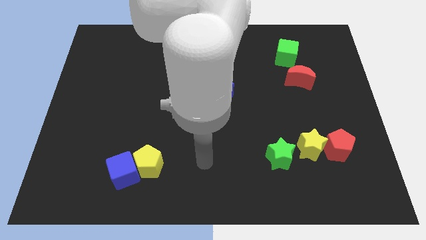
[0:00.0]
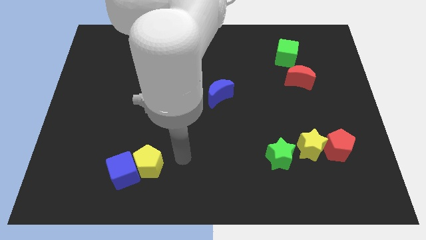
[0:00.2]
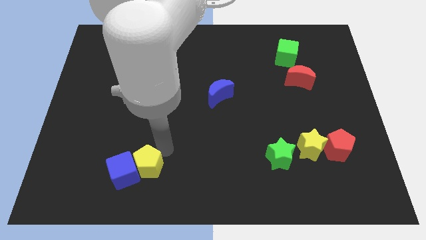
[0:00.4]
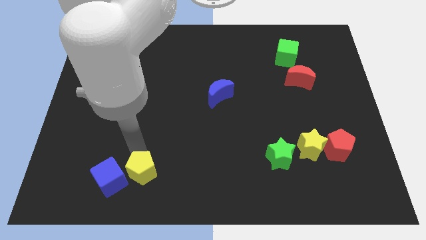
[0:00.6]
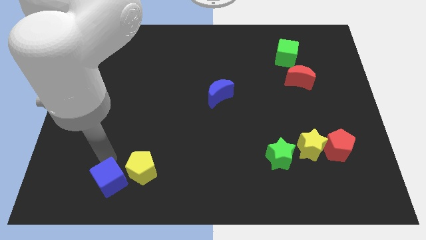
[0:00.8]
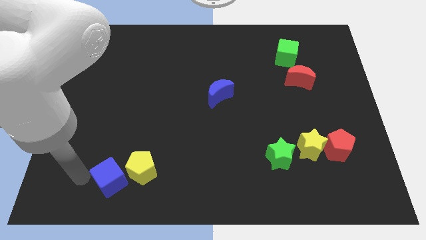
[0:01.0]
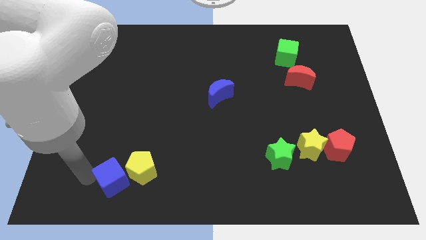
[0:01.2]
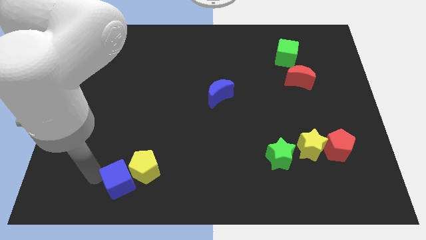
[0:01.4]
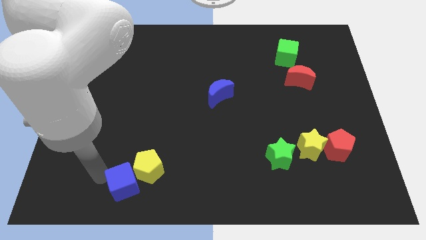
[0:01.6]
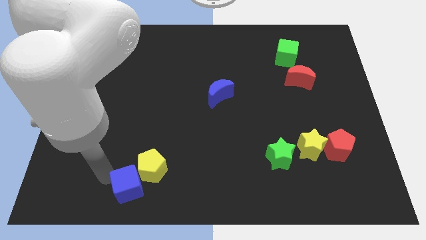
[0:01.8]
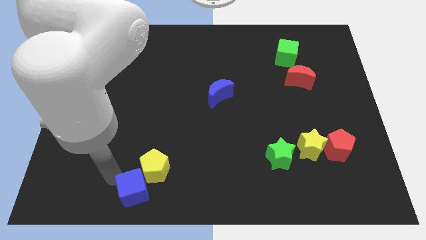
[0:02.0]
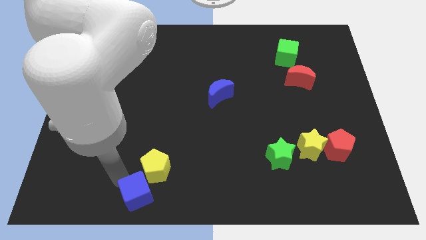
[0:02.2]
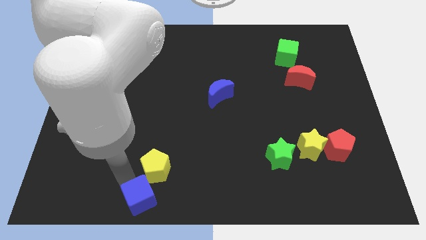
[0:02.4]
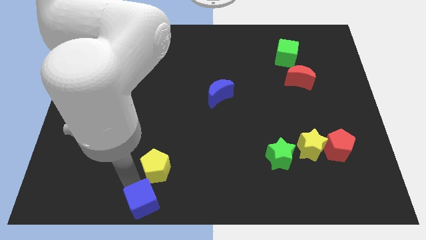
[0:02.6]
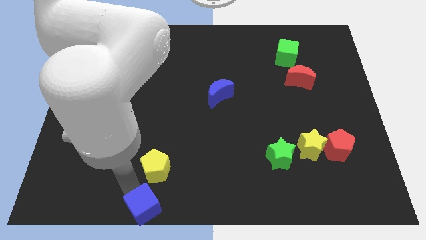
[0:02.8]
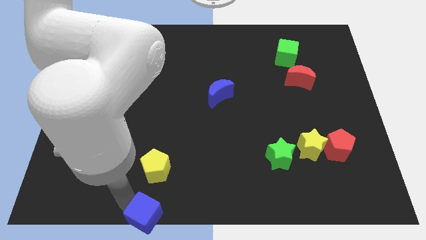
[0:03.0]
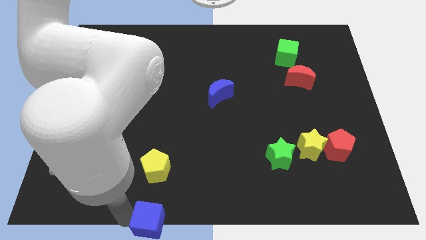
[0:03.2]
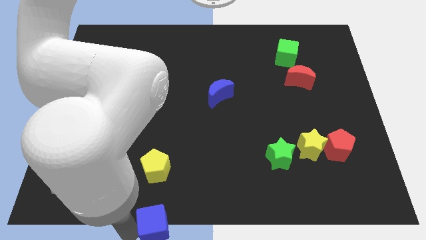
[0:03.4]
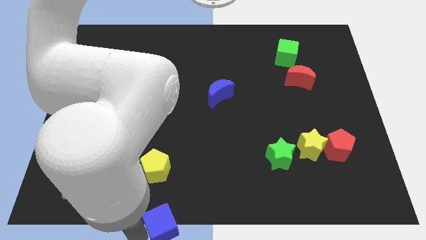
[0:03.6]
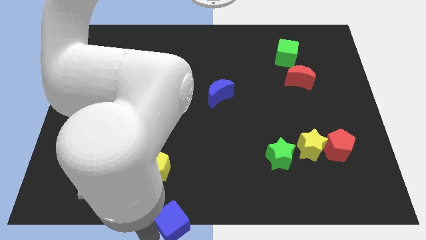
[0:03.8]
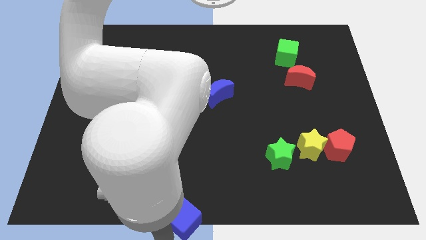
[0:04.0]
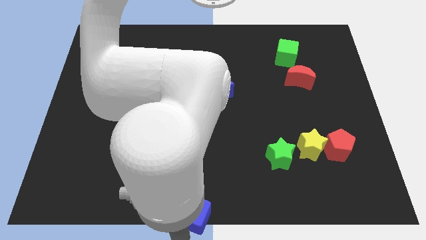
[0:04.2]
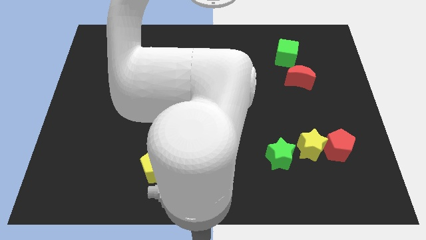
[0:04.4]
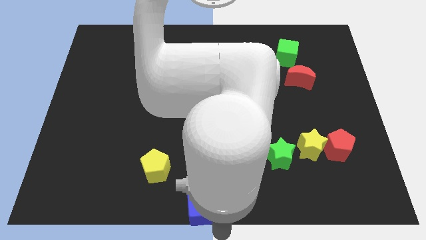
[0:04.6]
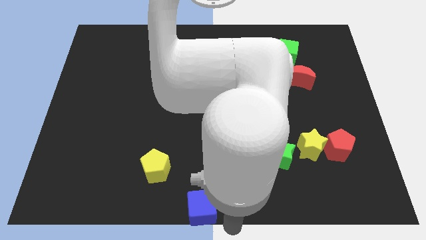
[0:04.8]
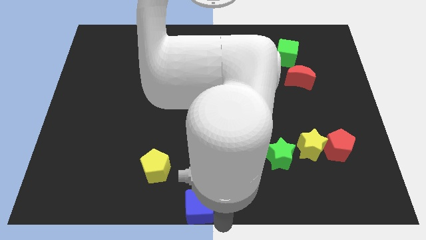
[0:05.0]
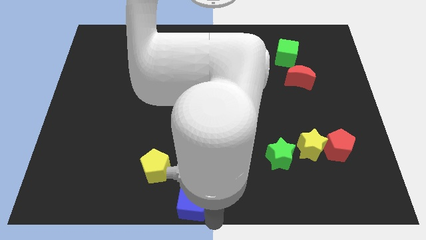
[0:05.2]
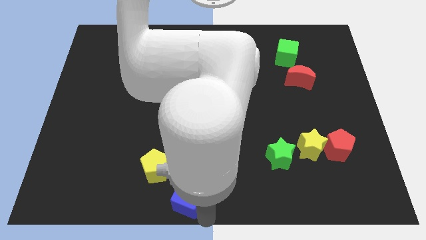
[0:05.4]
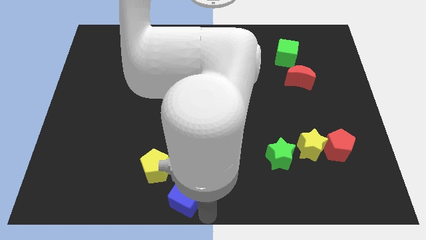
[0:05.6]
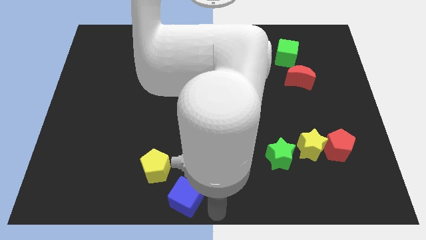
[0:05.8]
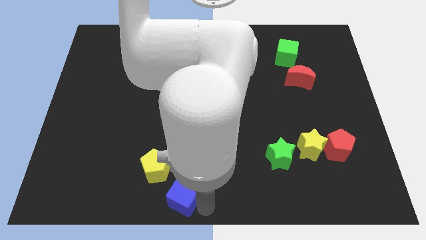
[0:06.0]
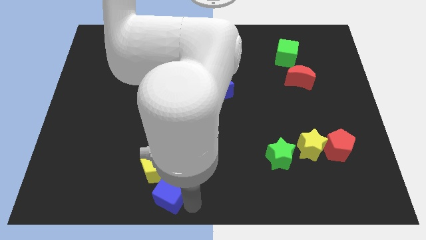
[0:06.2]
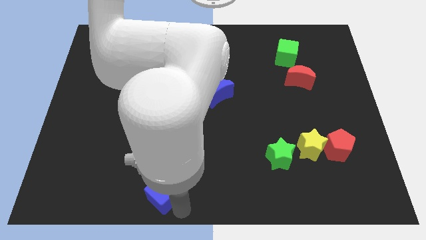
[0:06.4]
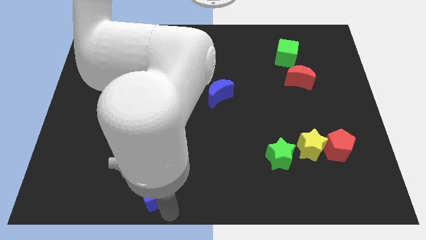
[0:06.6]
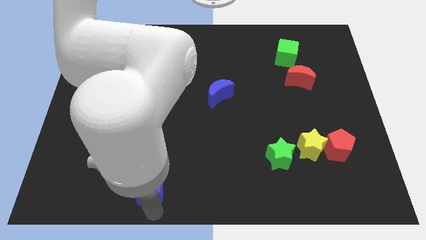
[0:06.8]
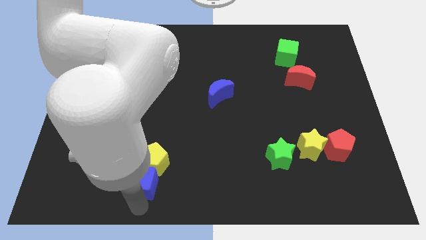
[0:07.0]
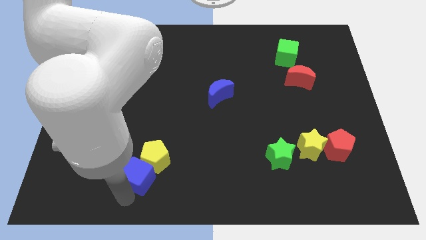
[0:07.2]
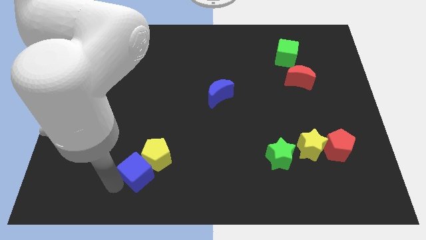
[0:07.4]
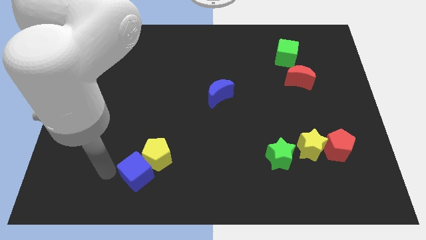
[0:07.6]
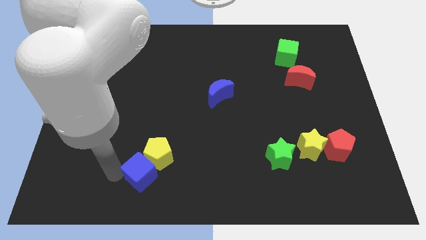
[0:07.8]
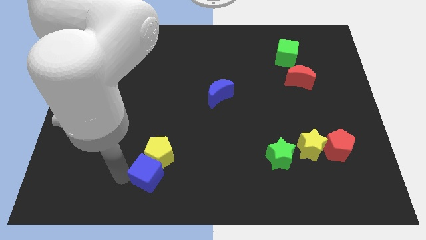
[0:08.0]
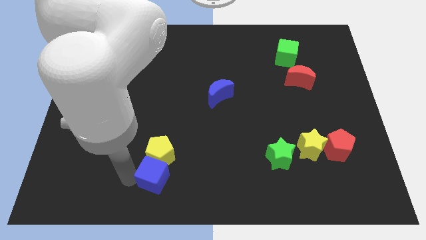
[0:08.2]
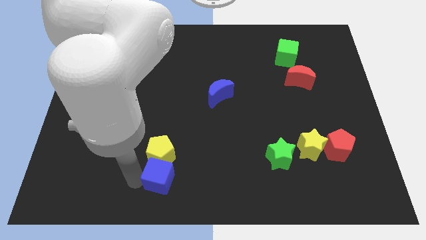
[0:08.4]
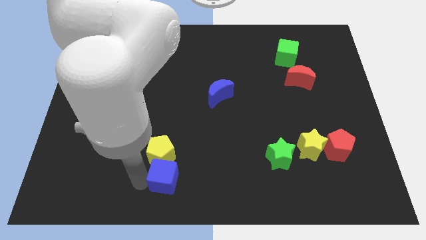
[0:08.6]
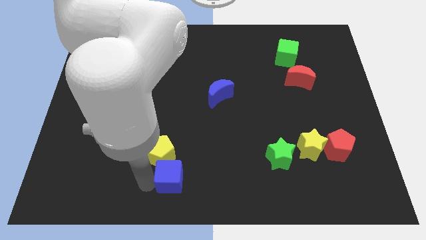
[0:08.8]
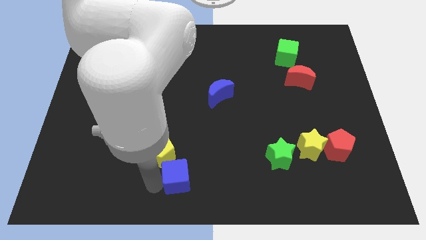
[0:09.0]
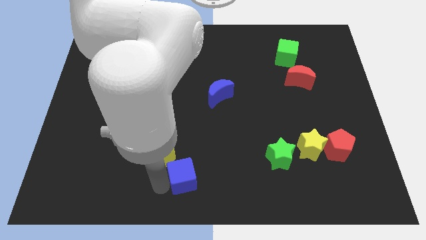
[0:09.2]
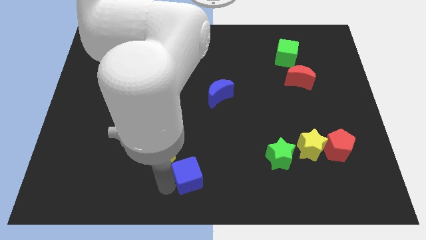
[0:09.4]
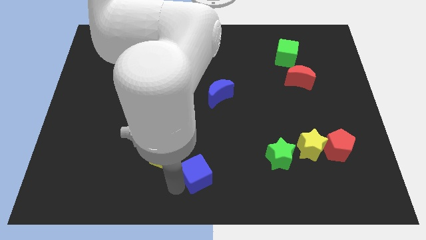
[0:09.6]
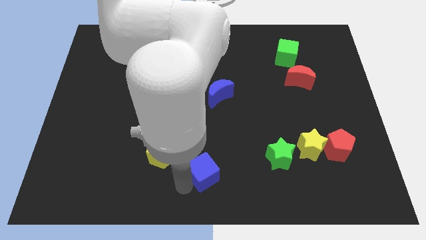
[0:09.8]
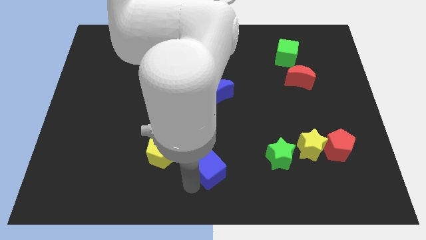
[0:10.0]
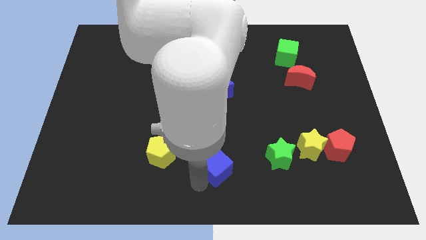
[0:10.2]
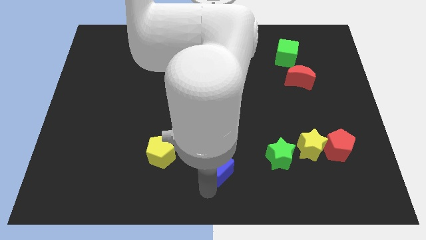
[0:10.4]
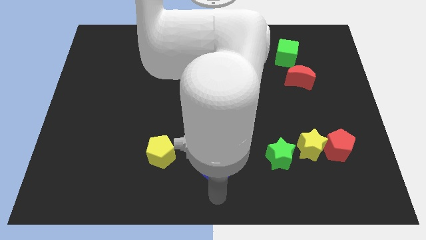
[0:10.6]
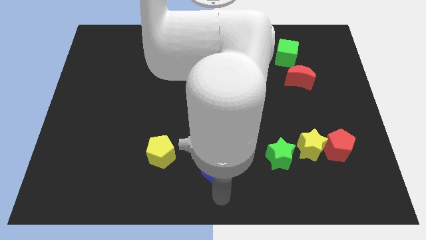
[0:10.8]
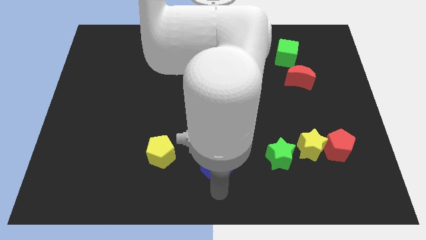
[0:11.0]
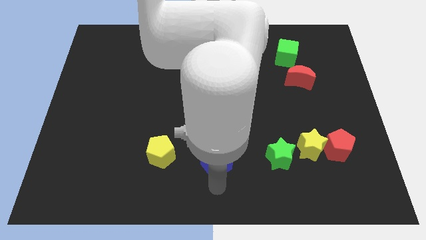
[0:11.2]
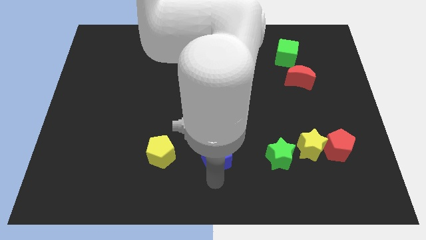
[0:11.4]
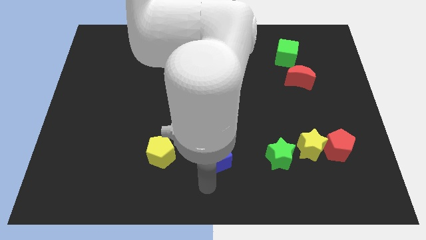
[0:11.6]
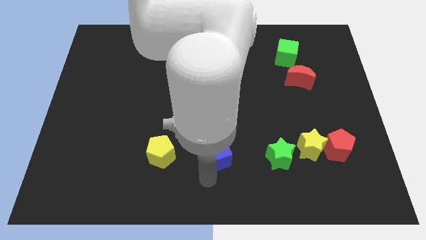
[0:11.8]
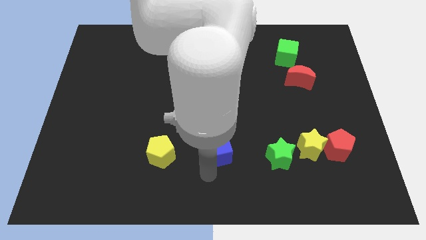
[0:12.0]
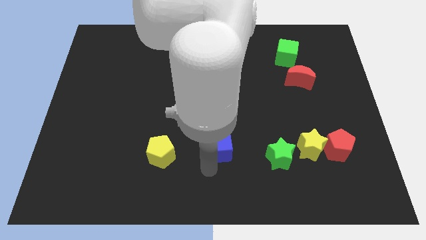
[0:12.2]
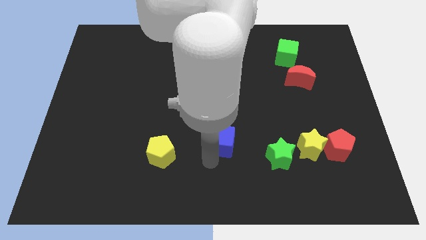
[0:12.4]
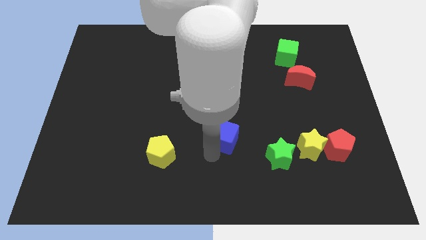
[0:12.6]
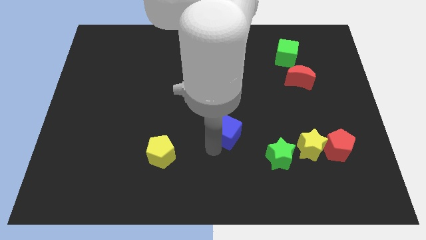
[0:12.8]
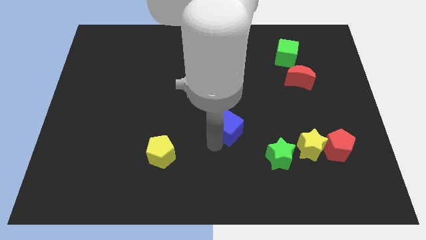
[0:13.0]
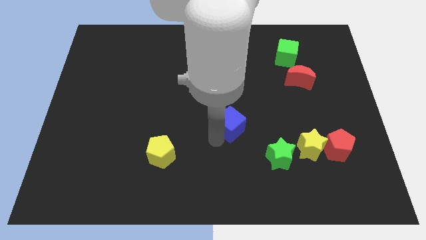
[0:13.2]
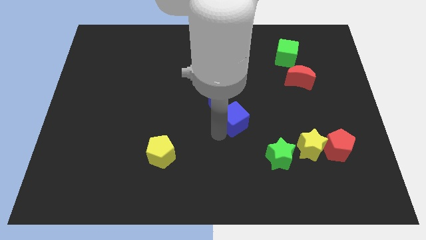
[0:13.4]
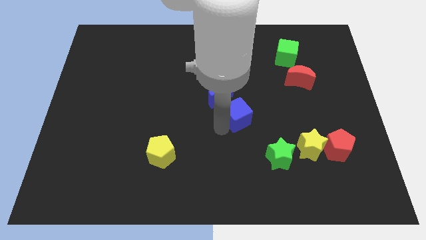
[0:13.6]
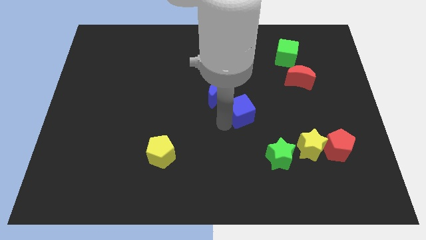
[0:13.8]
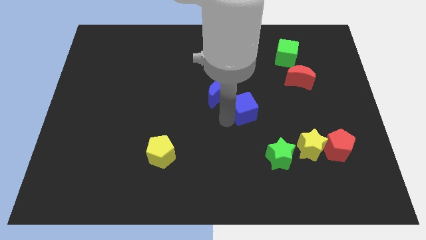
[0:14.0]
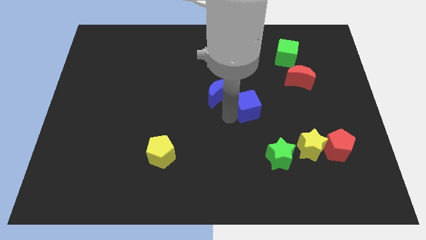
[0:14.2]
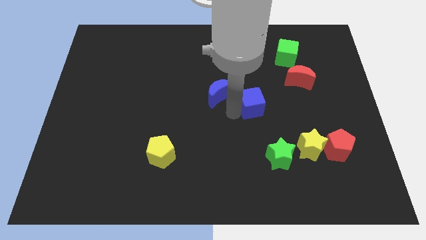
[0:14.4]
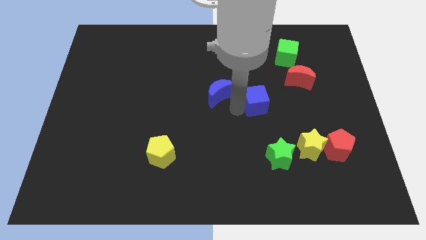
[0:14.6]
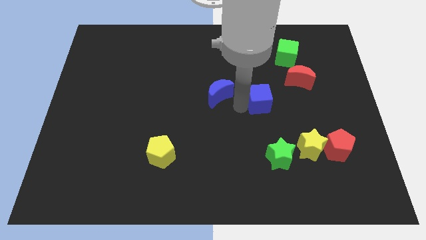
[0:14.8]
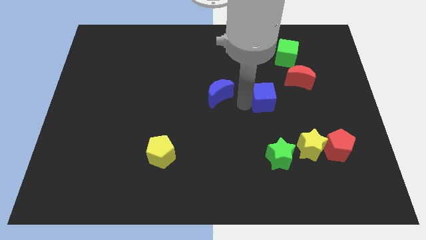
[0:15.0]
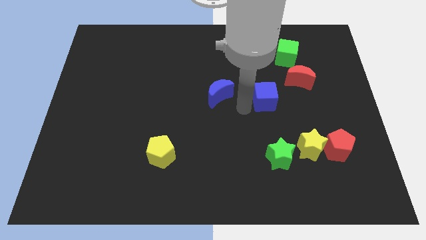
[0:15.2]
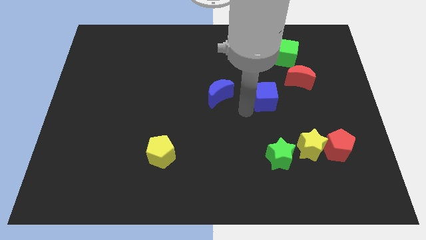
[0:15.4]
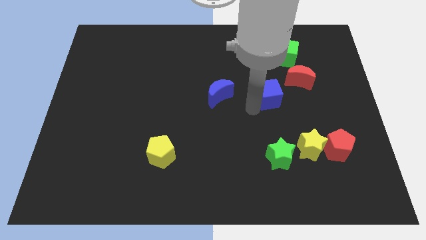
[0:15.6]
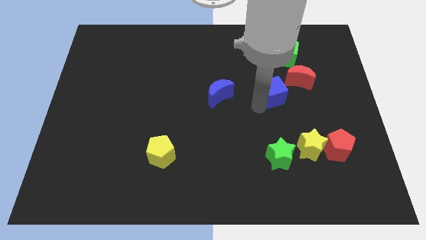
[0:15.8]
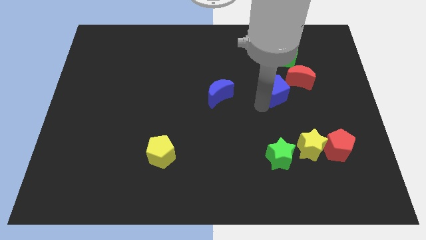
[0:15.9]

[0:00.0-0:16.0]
push the blue cube below the green cube
